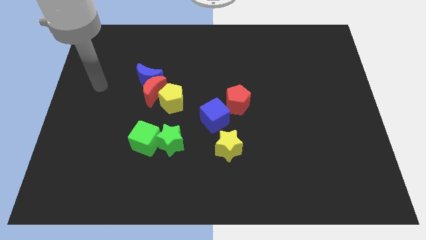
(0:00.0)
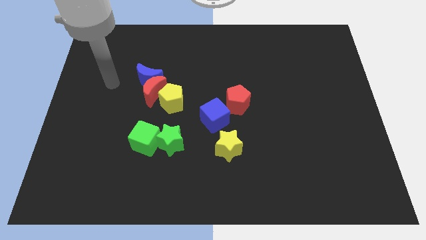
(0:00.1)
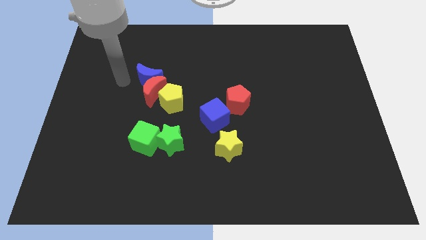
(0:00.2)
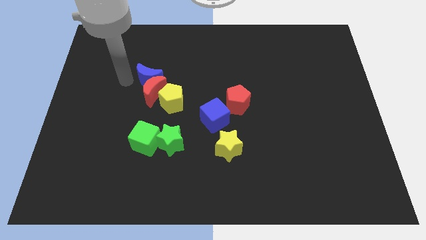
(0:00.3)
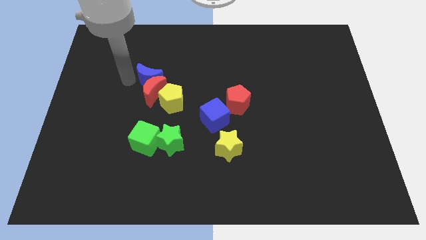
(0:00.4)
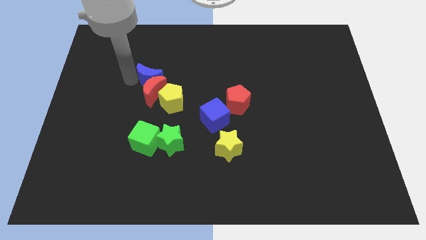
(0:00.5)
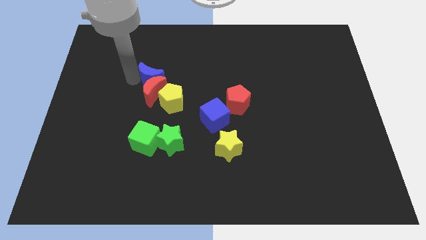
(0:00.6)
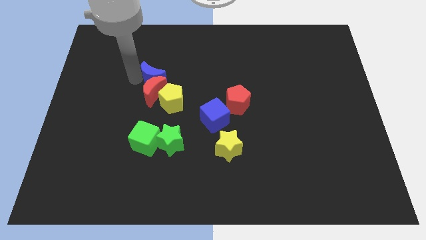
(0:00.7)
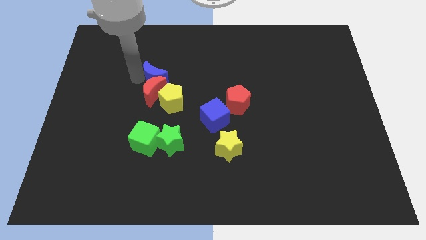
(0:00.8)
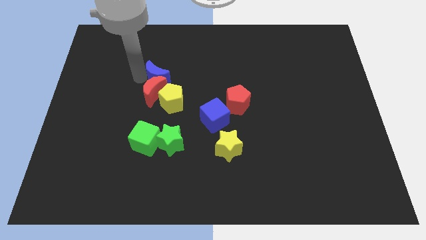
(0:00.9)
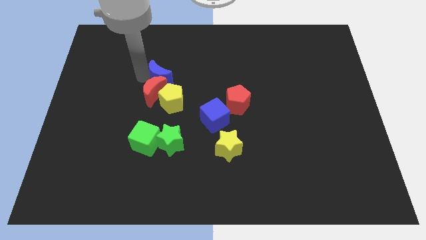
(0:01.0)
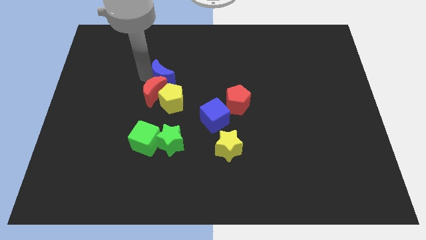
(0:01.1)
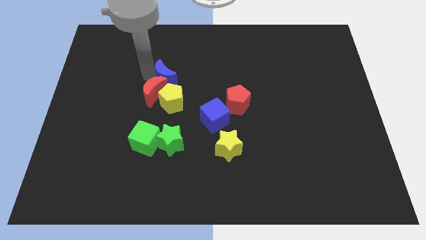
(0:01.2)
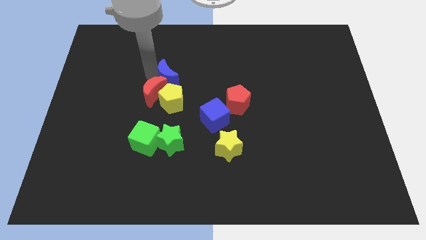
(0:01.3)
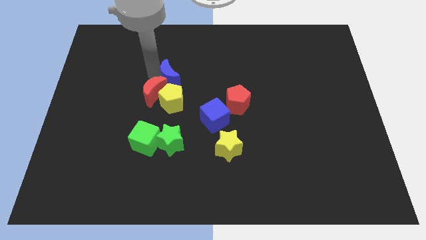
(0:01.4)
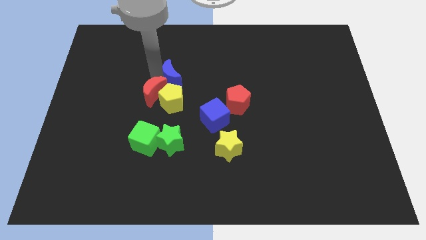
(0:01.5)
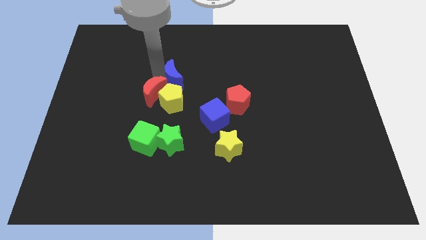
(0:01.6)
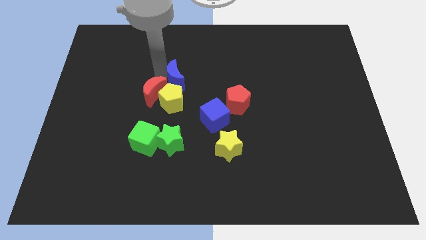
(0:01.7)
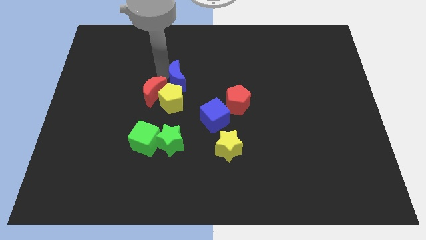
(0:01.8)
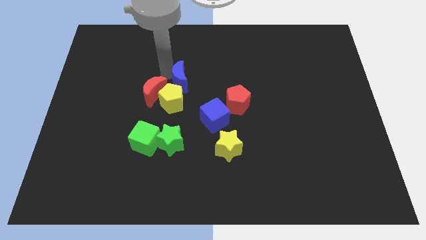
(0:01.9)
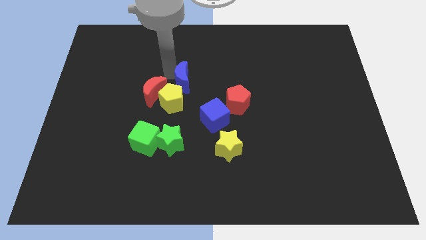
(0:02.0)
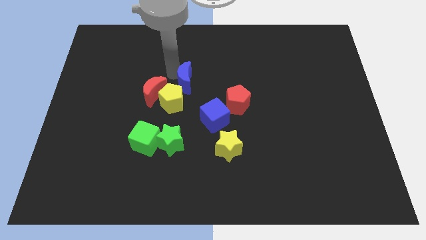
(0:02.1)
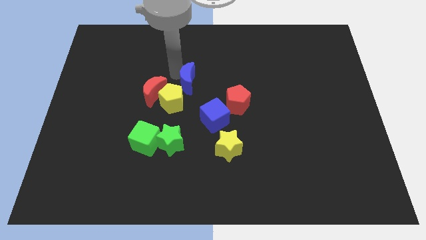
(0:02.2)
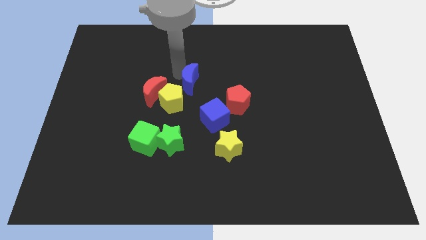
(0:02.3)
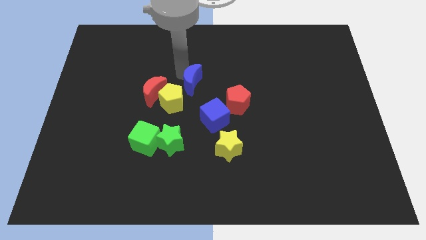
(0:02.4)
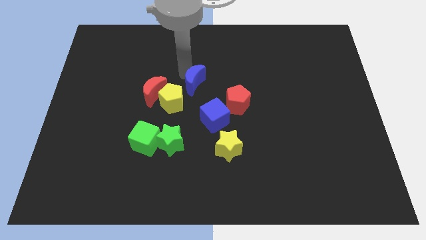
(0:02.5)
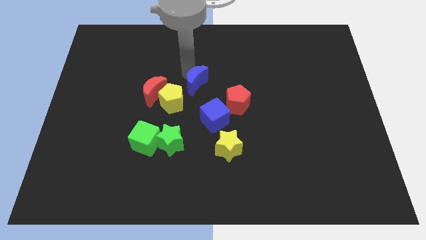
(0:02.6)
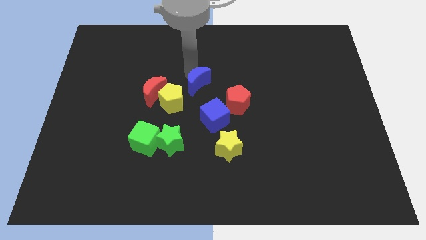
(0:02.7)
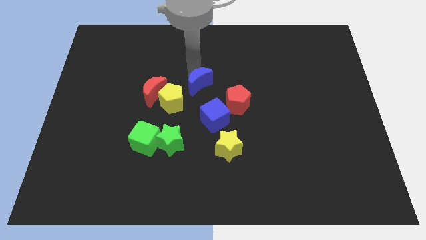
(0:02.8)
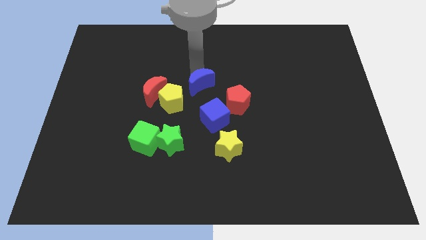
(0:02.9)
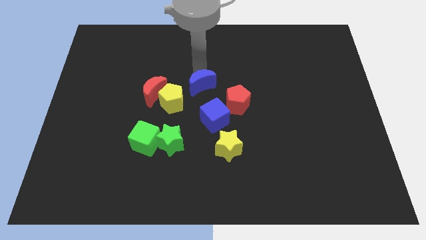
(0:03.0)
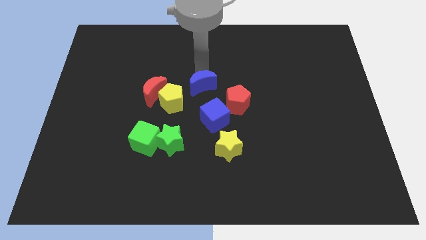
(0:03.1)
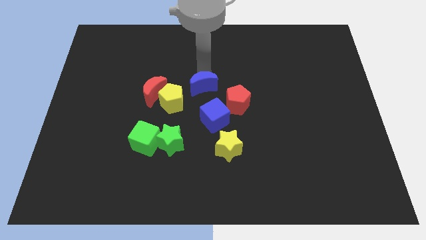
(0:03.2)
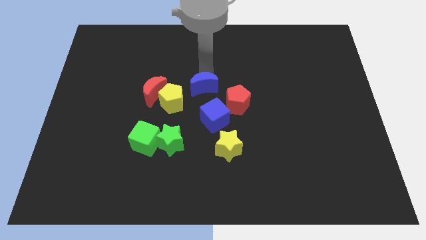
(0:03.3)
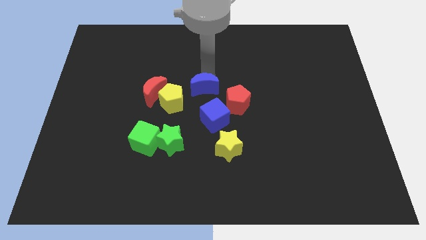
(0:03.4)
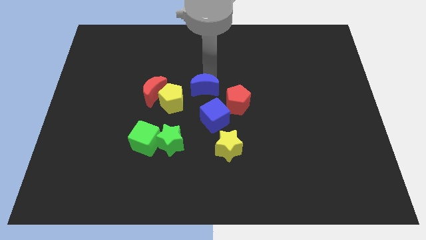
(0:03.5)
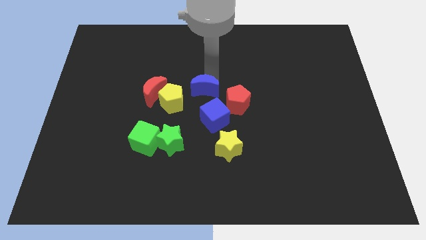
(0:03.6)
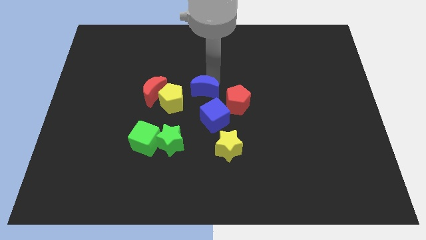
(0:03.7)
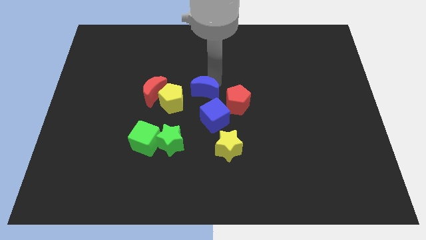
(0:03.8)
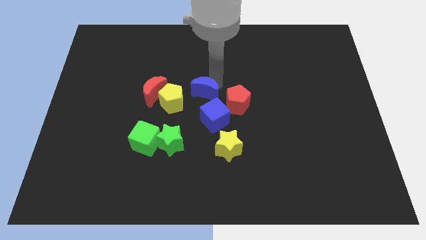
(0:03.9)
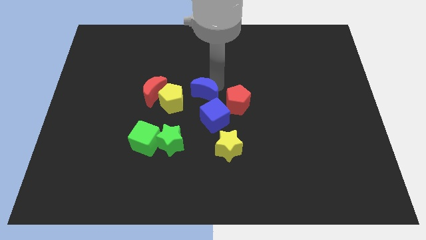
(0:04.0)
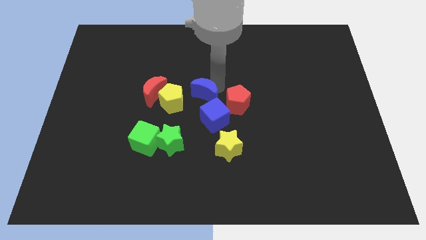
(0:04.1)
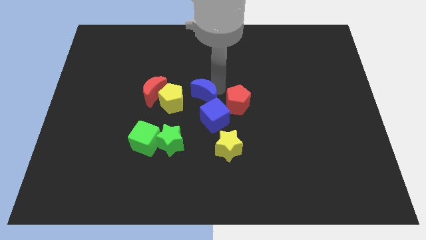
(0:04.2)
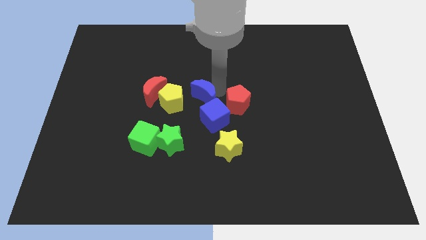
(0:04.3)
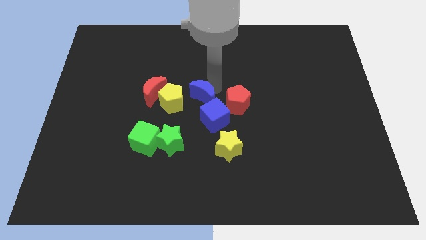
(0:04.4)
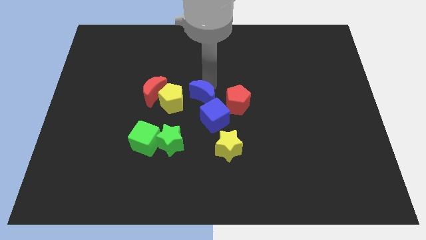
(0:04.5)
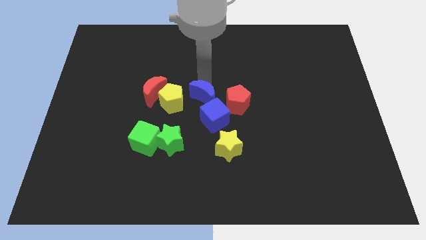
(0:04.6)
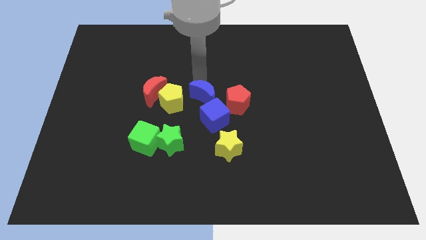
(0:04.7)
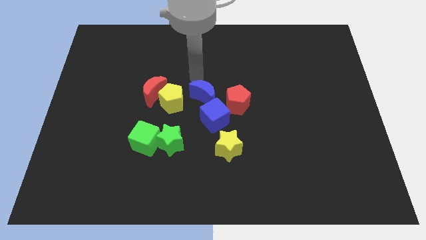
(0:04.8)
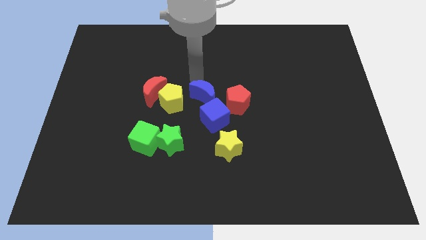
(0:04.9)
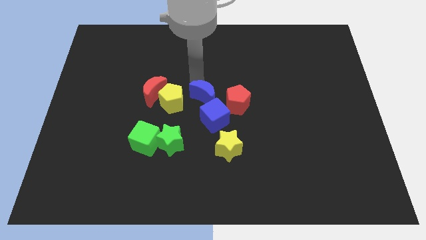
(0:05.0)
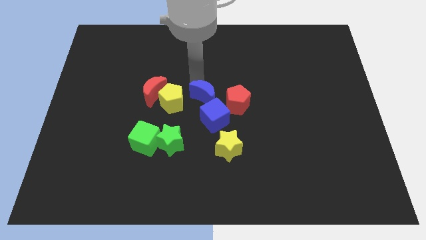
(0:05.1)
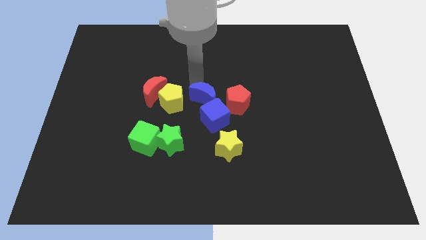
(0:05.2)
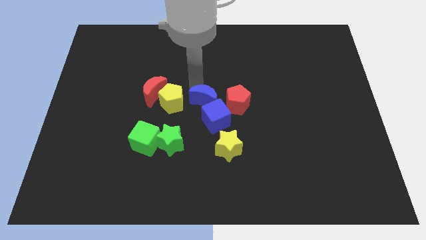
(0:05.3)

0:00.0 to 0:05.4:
put the blue moon next to the blue cube

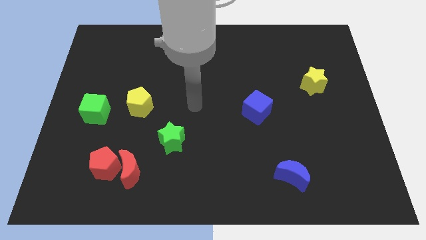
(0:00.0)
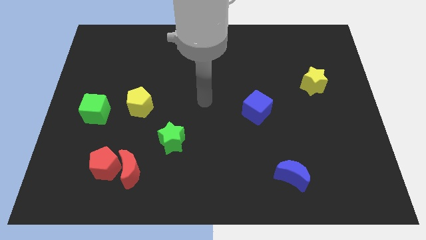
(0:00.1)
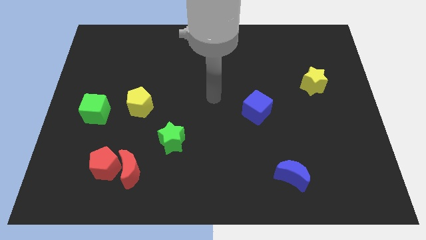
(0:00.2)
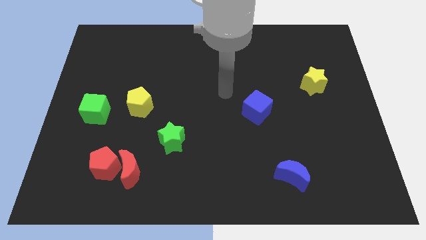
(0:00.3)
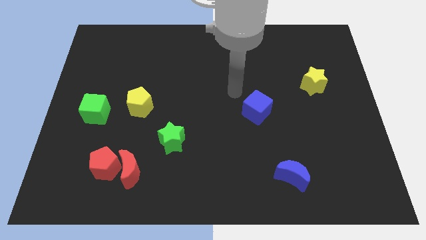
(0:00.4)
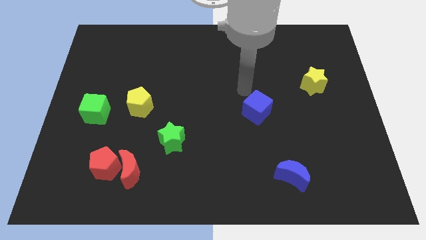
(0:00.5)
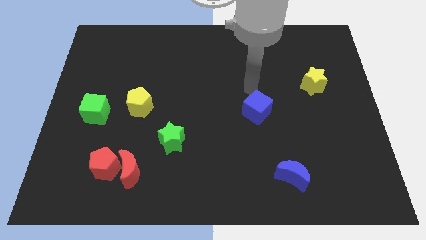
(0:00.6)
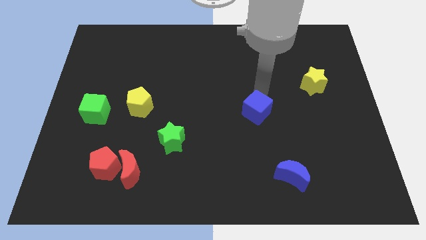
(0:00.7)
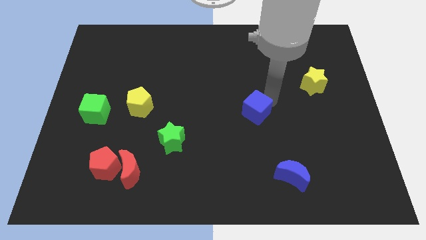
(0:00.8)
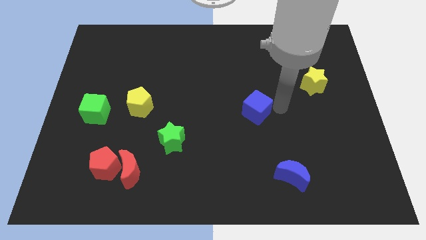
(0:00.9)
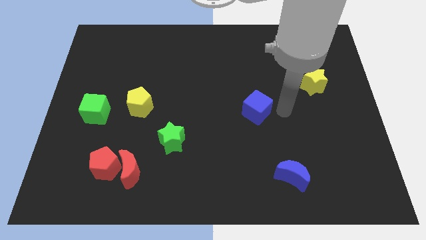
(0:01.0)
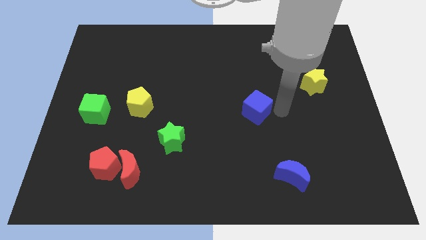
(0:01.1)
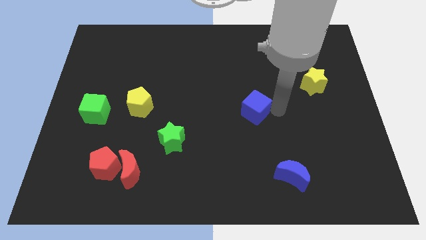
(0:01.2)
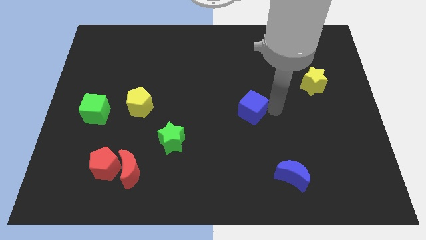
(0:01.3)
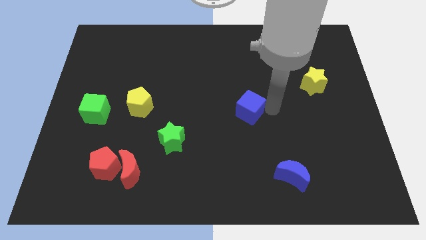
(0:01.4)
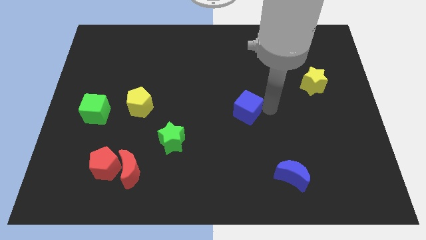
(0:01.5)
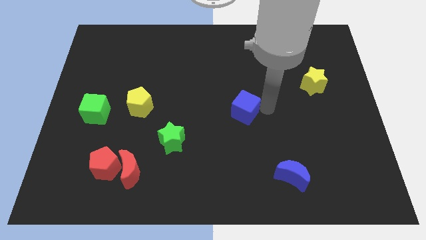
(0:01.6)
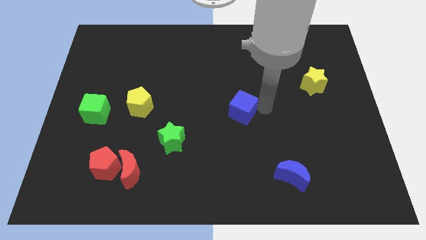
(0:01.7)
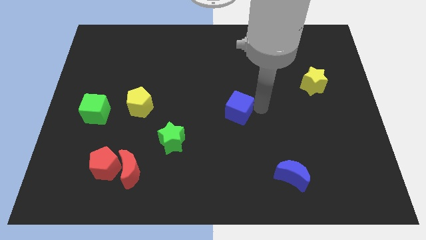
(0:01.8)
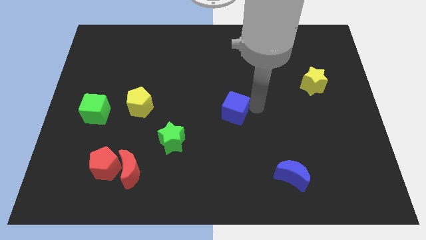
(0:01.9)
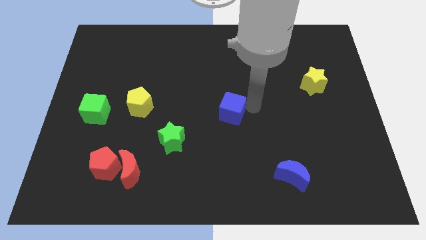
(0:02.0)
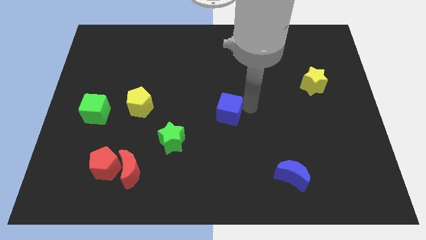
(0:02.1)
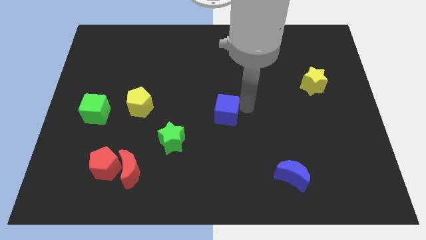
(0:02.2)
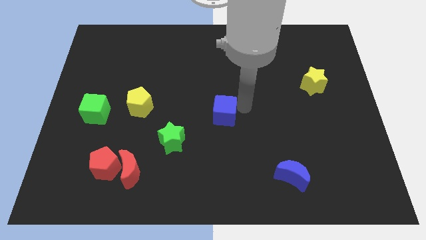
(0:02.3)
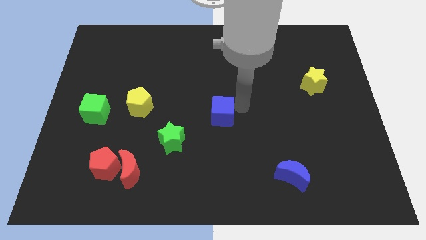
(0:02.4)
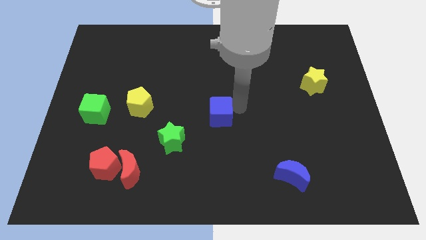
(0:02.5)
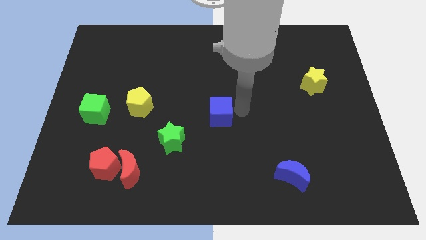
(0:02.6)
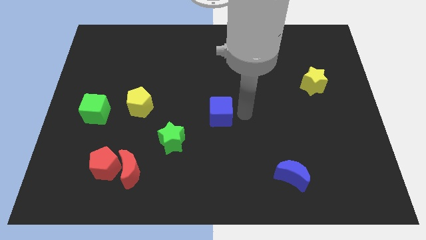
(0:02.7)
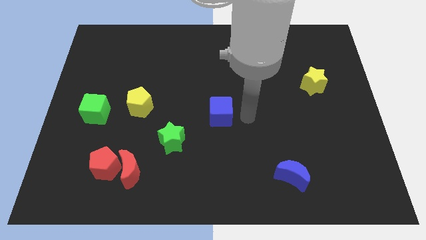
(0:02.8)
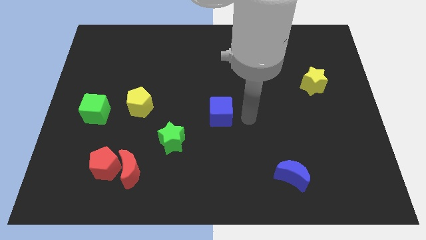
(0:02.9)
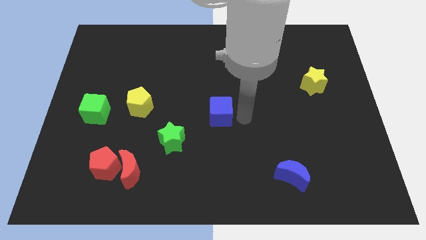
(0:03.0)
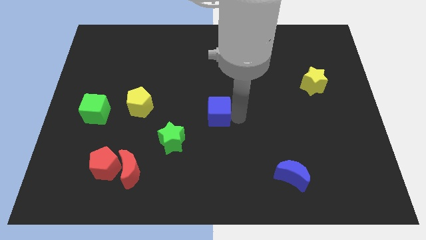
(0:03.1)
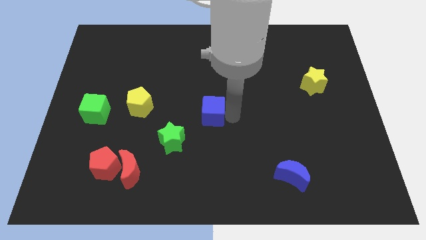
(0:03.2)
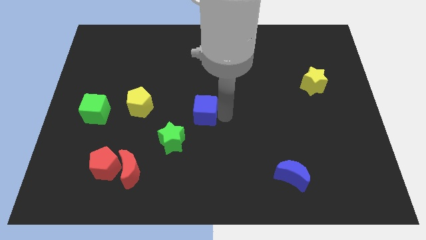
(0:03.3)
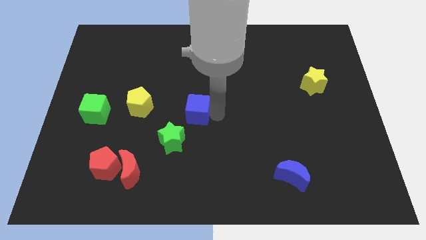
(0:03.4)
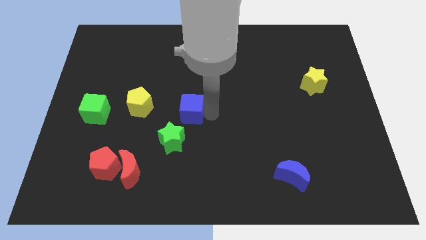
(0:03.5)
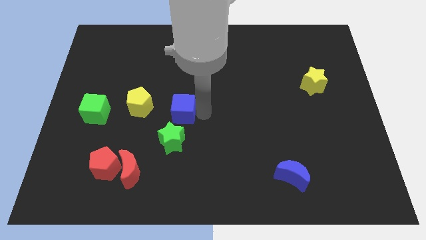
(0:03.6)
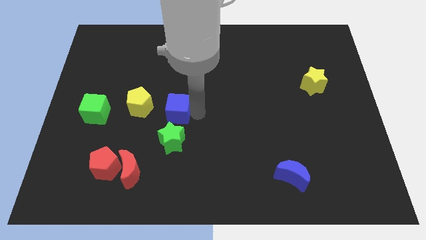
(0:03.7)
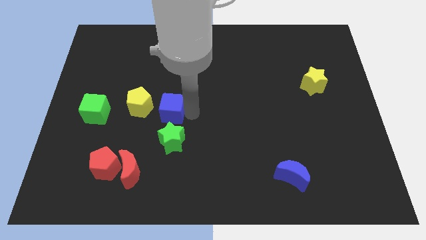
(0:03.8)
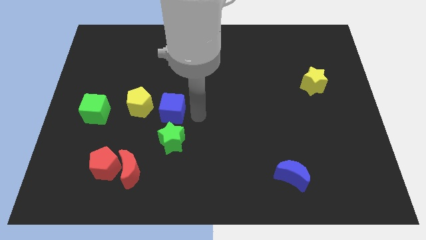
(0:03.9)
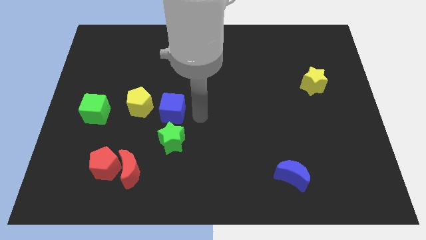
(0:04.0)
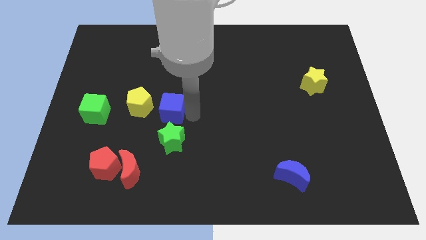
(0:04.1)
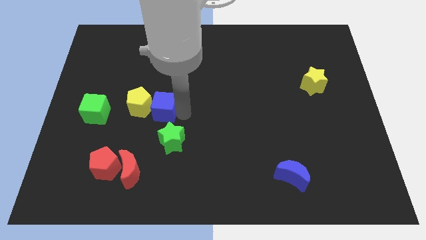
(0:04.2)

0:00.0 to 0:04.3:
slide the blue cube next to the yellow pentagon
